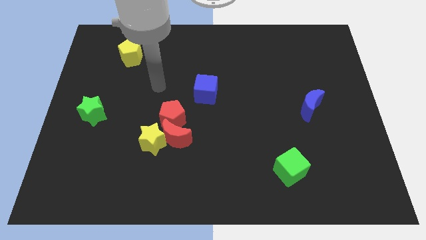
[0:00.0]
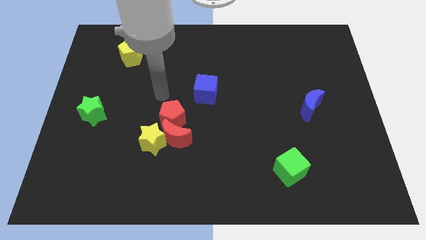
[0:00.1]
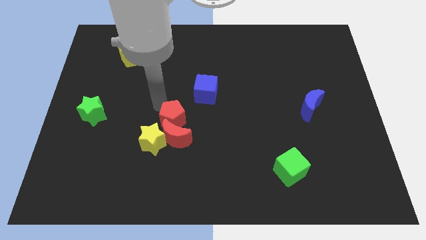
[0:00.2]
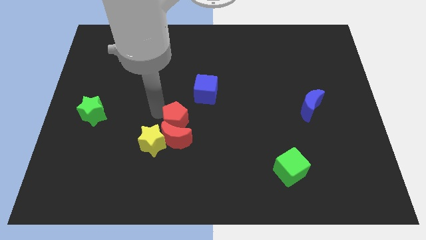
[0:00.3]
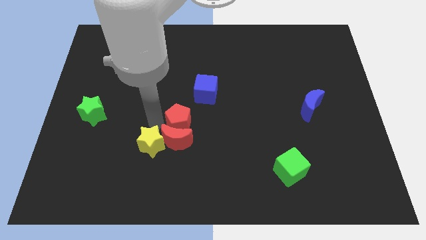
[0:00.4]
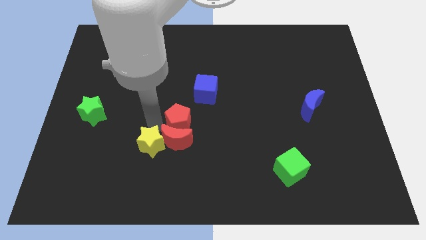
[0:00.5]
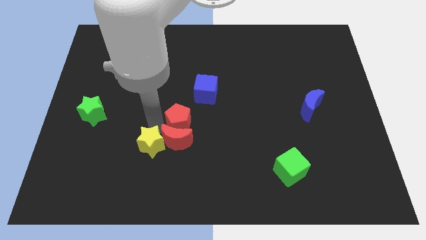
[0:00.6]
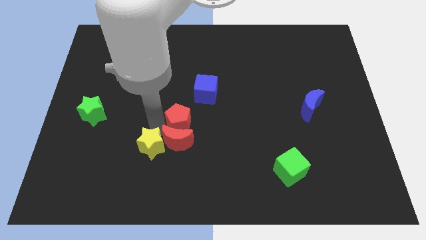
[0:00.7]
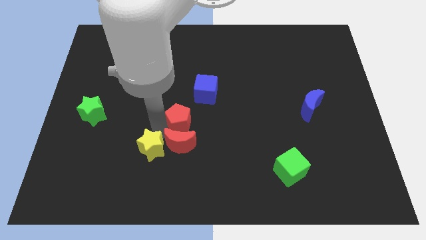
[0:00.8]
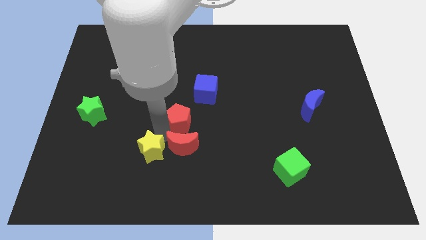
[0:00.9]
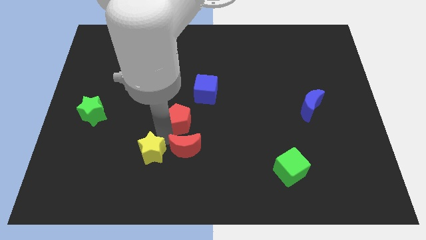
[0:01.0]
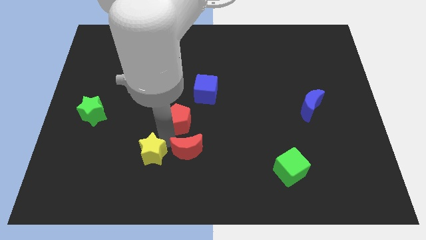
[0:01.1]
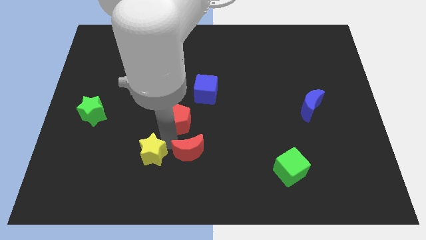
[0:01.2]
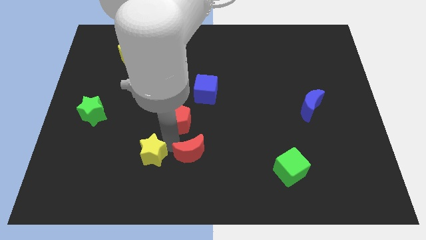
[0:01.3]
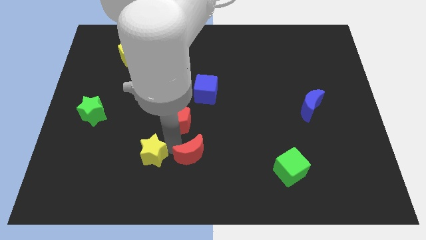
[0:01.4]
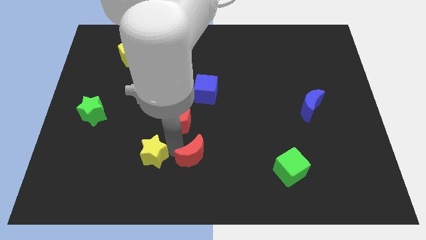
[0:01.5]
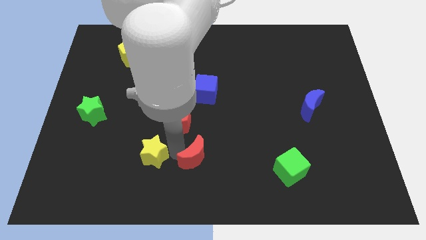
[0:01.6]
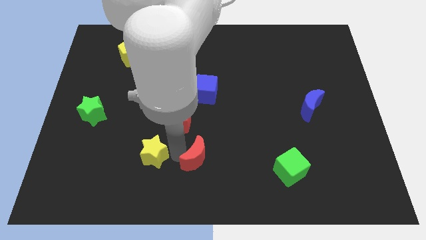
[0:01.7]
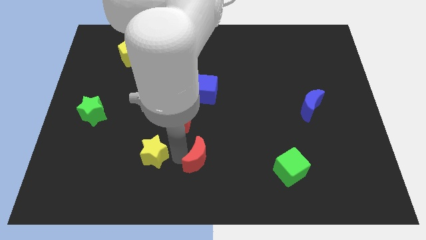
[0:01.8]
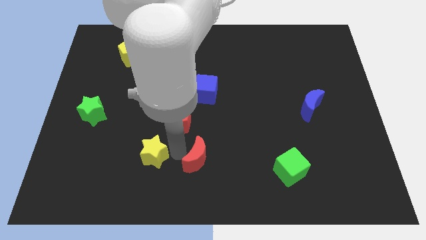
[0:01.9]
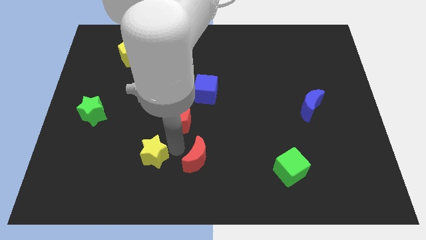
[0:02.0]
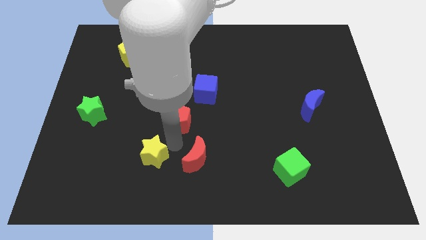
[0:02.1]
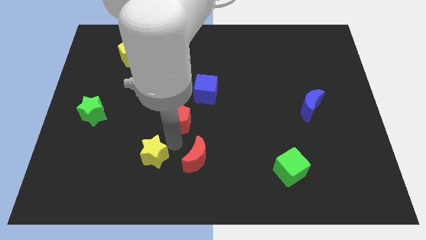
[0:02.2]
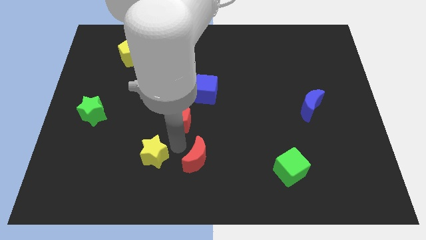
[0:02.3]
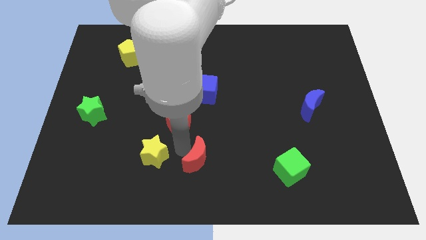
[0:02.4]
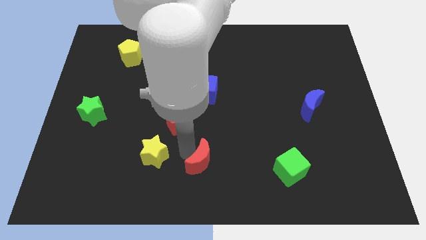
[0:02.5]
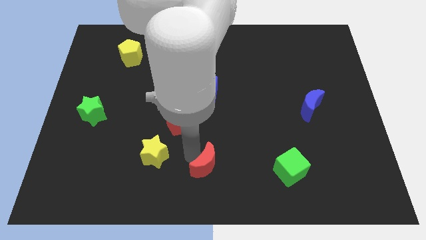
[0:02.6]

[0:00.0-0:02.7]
move the red moon away from the yellow star and red pentagon

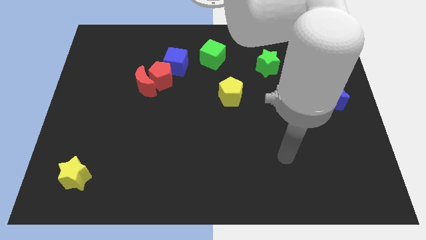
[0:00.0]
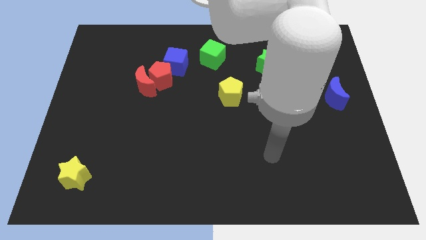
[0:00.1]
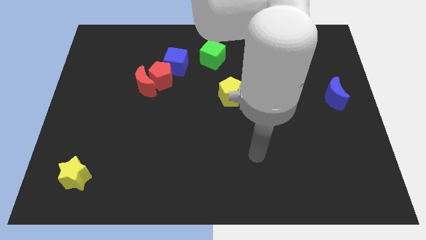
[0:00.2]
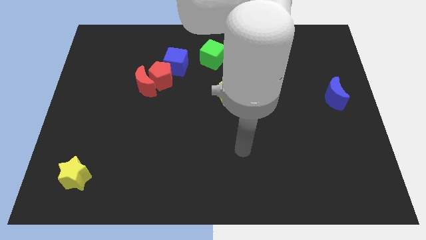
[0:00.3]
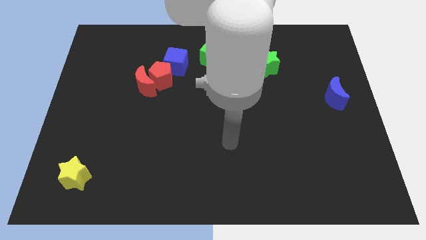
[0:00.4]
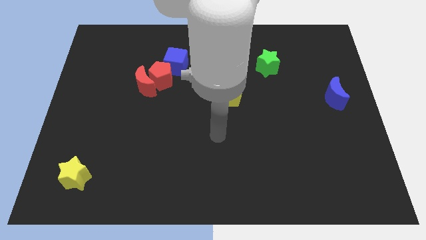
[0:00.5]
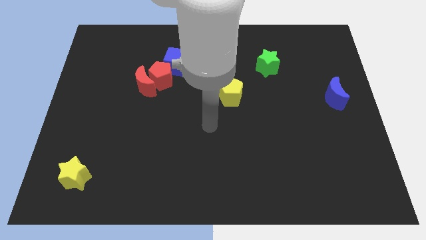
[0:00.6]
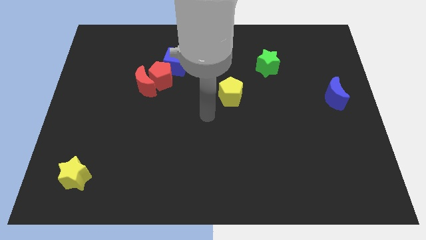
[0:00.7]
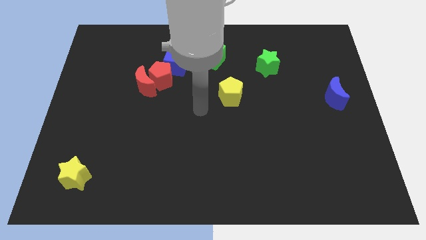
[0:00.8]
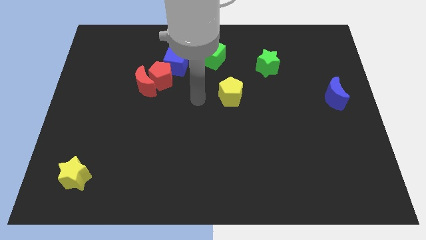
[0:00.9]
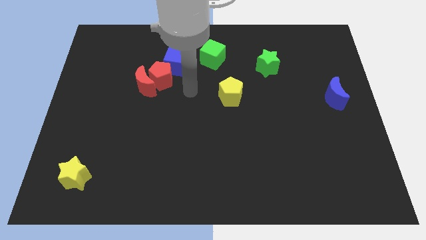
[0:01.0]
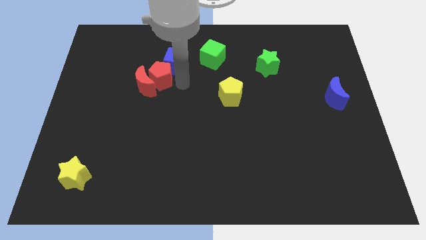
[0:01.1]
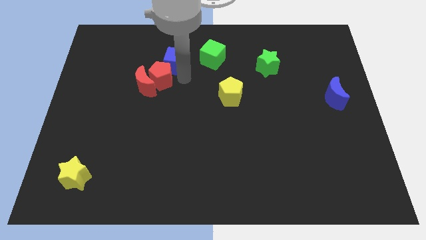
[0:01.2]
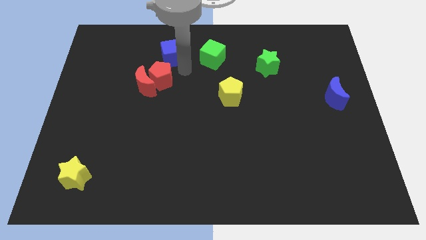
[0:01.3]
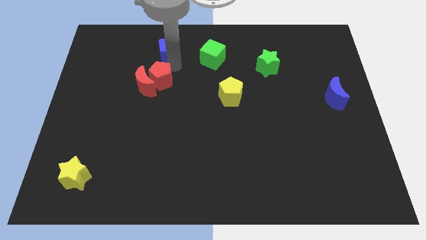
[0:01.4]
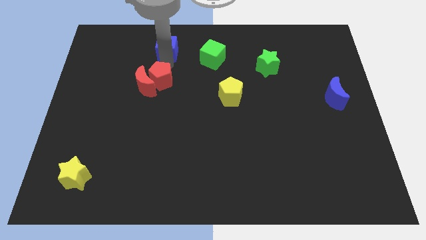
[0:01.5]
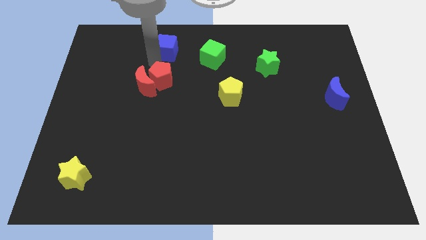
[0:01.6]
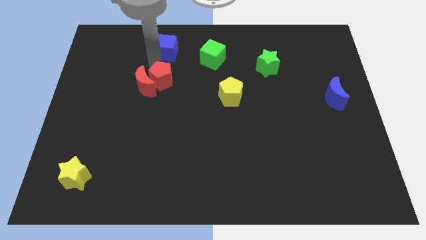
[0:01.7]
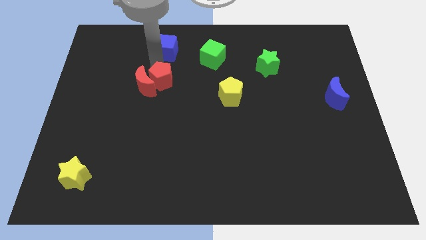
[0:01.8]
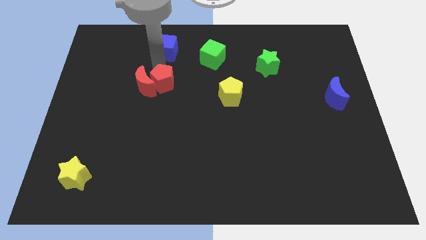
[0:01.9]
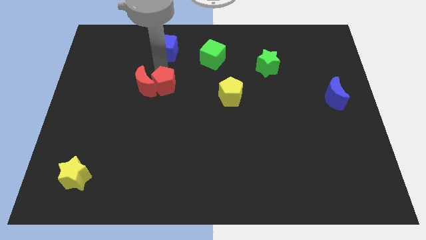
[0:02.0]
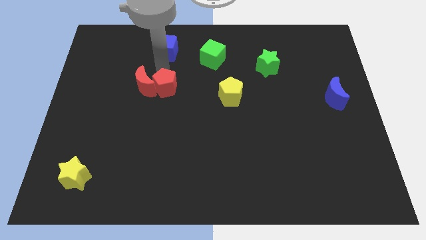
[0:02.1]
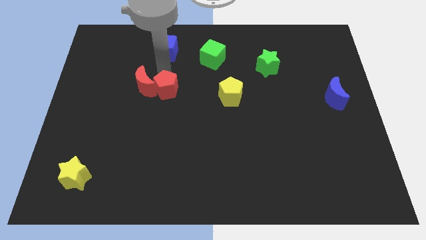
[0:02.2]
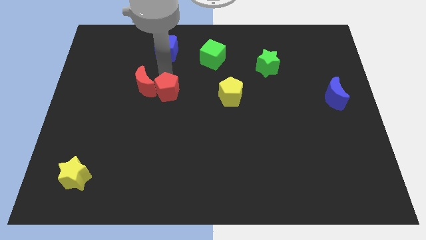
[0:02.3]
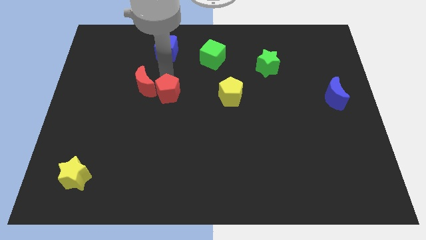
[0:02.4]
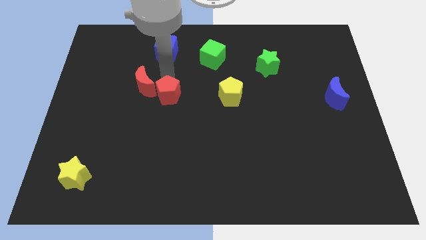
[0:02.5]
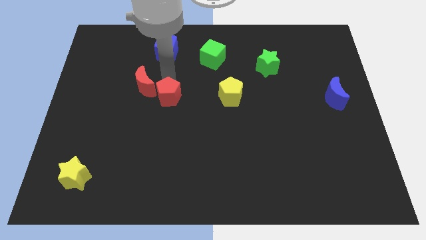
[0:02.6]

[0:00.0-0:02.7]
separate the red pentagon from the red moon and blue cube

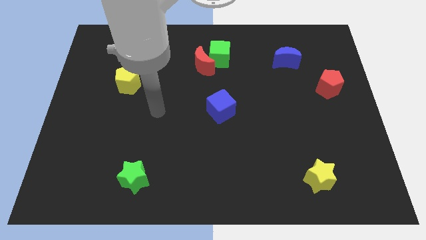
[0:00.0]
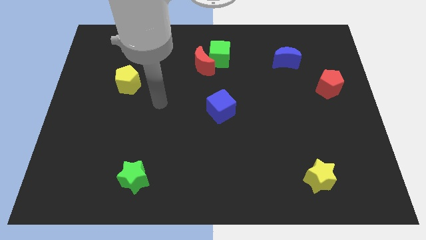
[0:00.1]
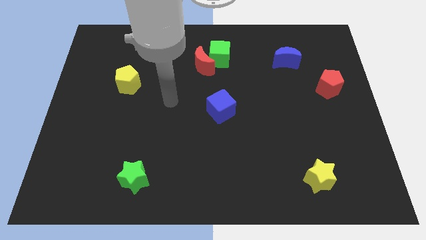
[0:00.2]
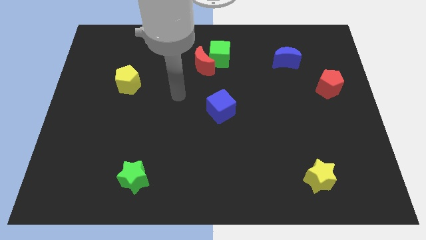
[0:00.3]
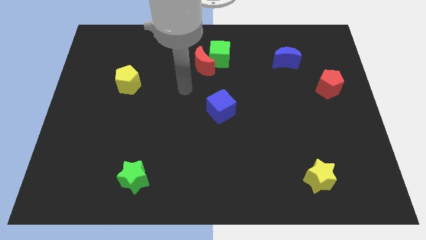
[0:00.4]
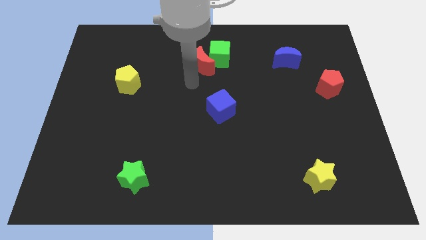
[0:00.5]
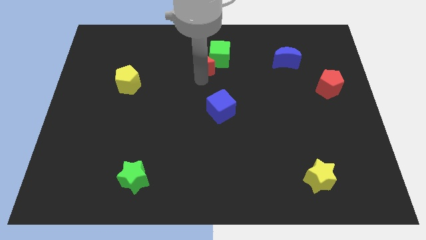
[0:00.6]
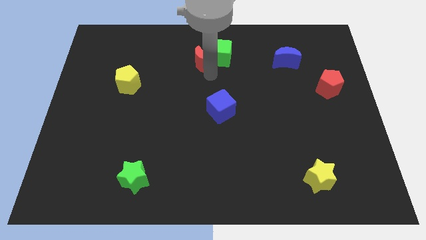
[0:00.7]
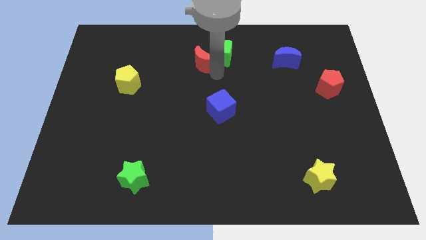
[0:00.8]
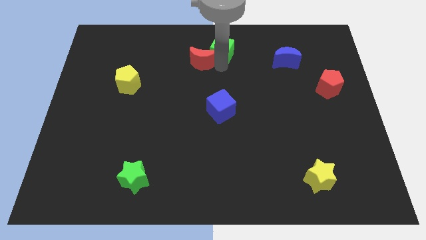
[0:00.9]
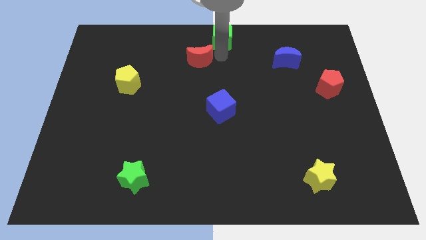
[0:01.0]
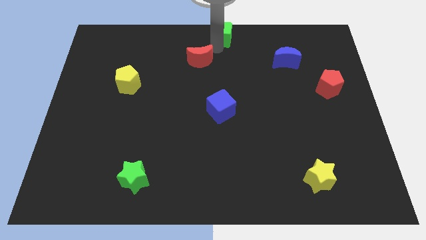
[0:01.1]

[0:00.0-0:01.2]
separate the red moon from the green cube

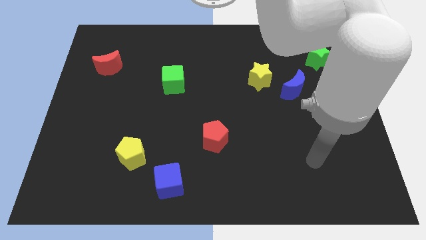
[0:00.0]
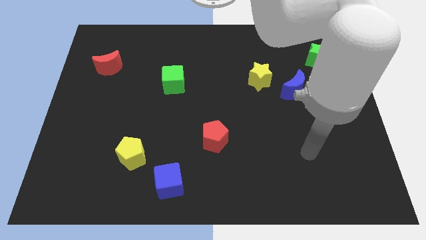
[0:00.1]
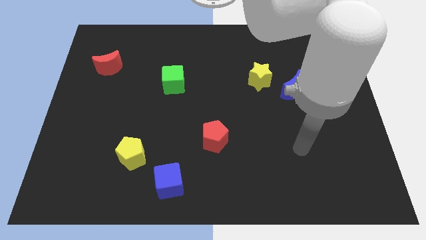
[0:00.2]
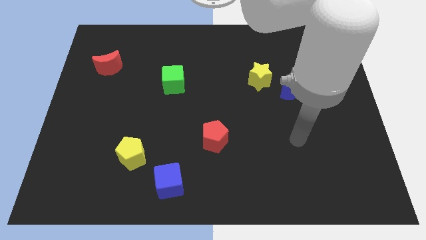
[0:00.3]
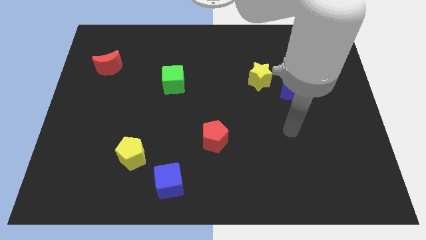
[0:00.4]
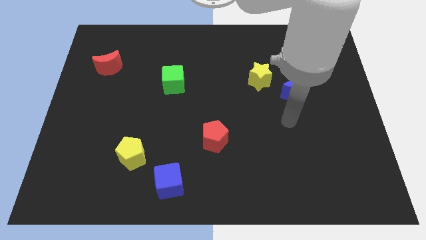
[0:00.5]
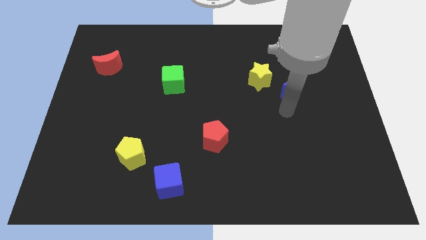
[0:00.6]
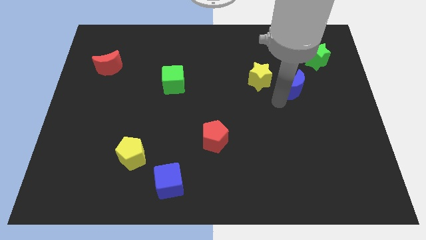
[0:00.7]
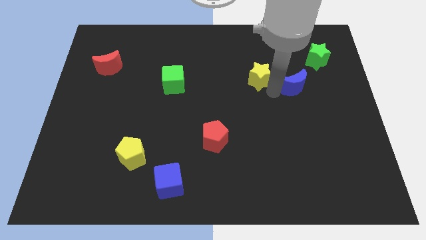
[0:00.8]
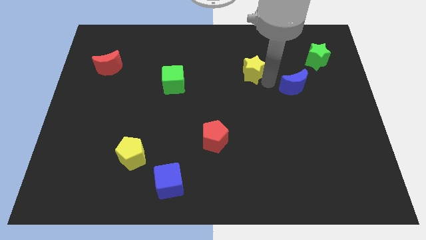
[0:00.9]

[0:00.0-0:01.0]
move the blue moon away from the yellow star

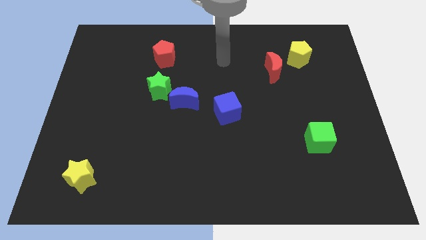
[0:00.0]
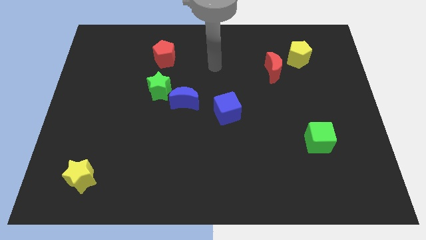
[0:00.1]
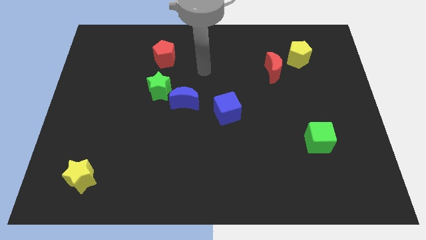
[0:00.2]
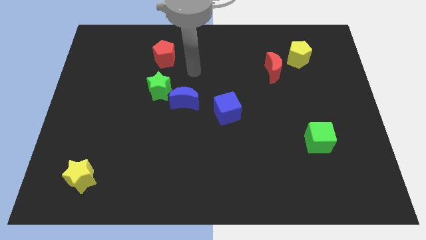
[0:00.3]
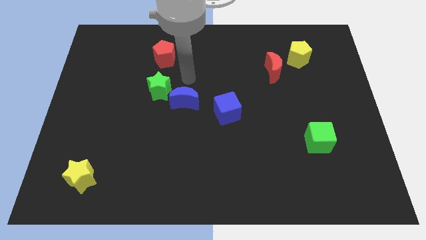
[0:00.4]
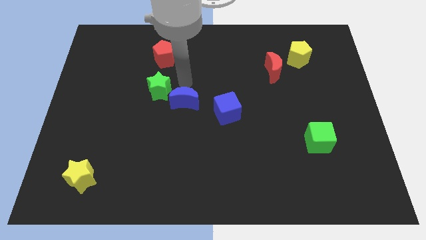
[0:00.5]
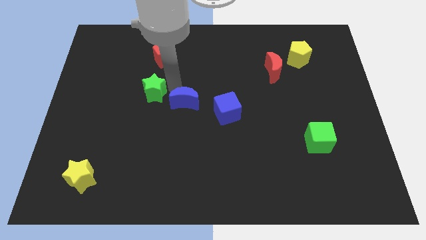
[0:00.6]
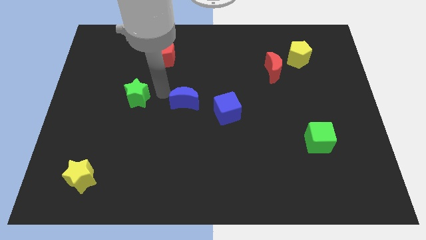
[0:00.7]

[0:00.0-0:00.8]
separate the blue moon from the green star

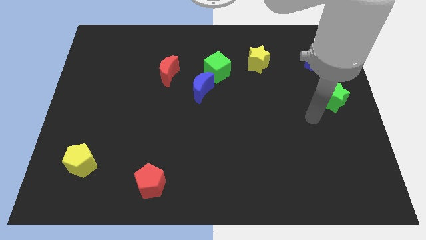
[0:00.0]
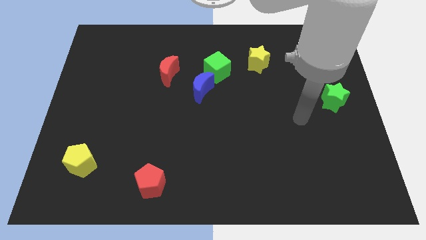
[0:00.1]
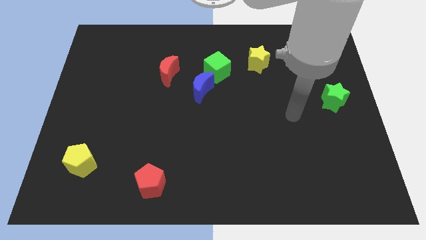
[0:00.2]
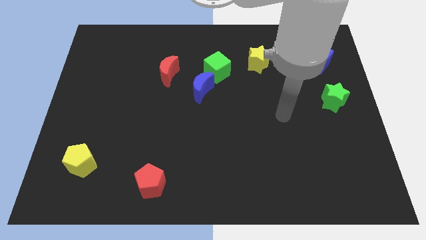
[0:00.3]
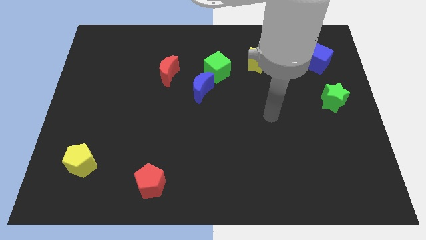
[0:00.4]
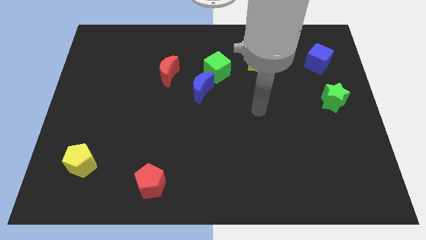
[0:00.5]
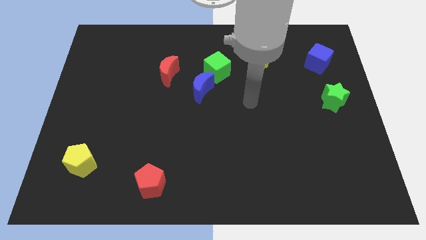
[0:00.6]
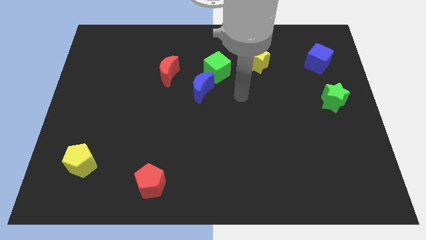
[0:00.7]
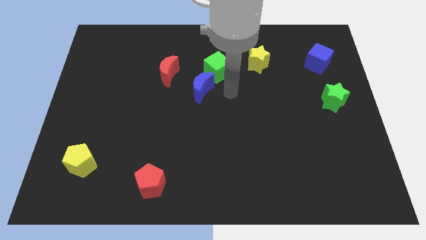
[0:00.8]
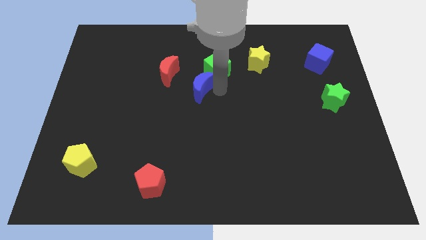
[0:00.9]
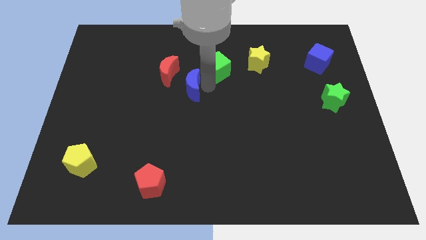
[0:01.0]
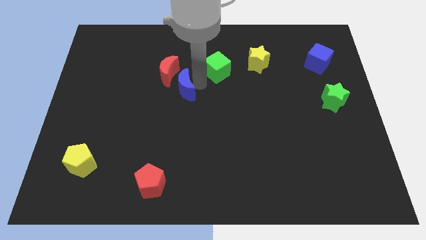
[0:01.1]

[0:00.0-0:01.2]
pull the green cube apart from the blue moon
